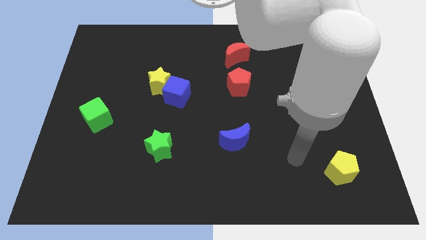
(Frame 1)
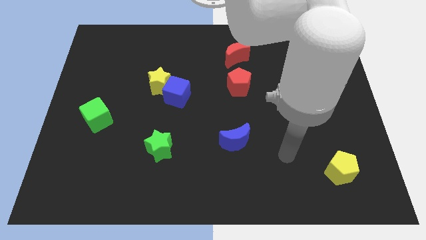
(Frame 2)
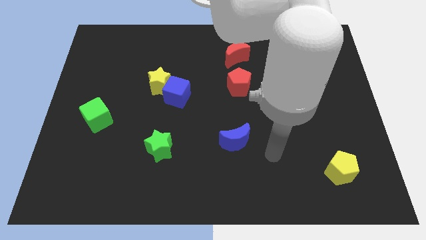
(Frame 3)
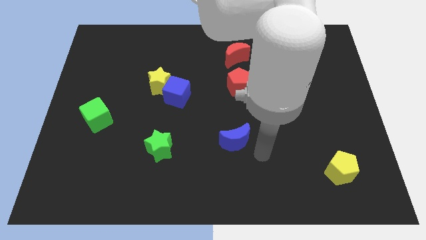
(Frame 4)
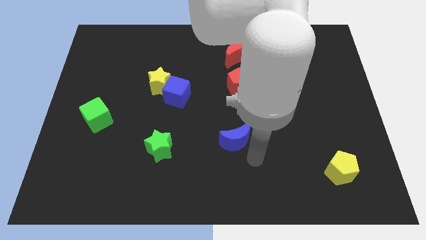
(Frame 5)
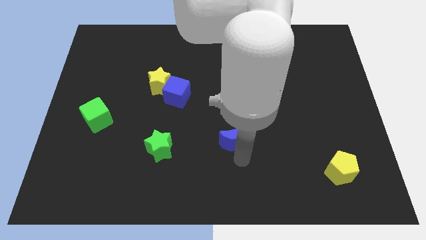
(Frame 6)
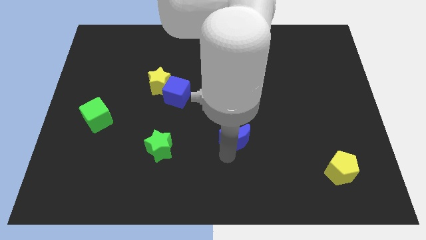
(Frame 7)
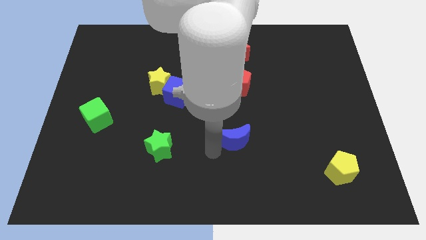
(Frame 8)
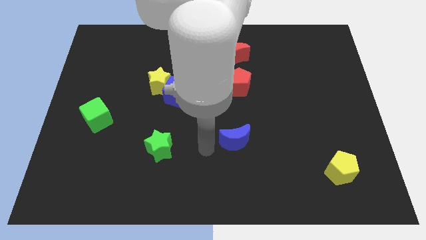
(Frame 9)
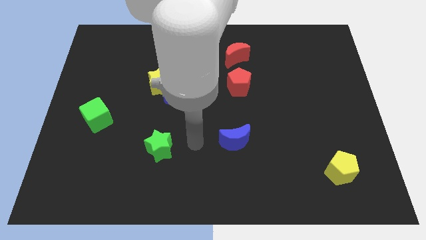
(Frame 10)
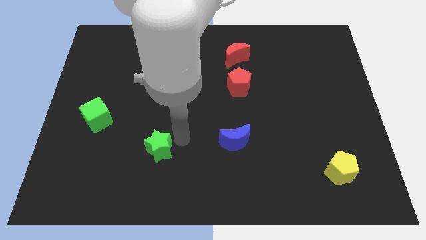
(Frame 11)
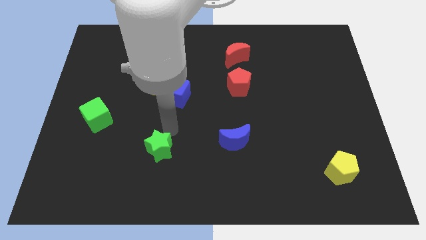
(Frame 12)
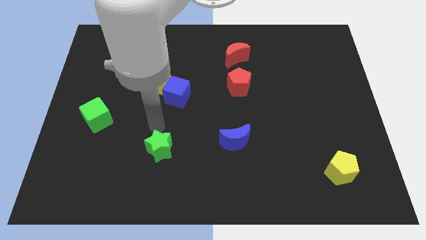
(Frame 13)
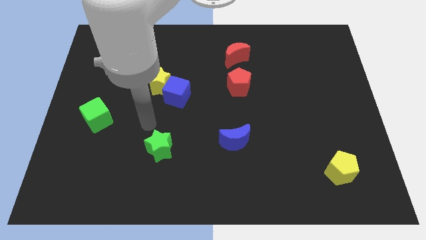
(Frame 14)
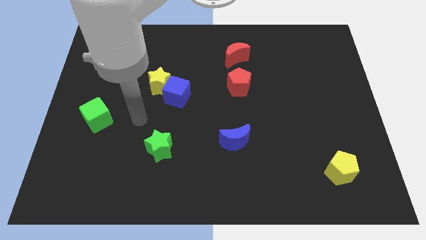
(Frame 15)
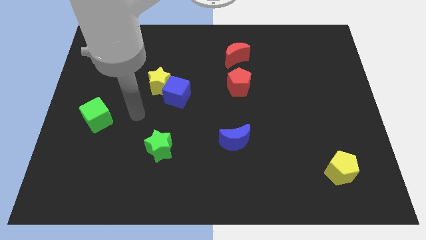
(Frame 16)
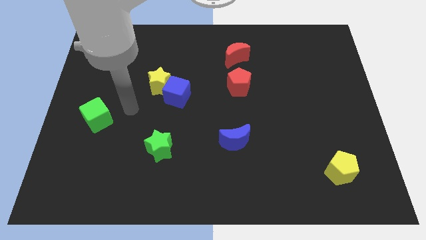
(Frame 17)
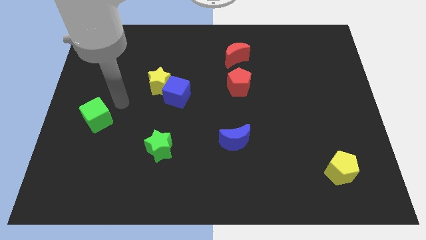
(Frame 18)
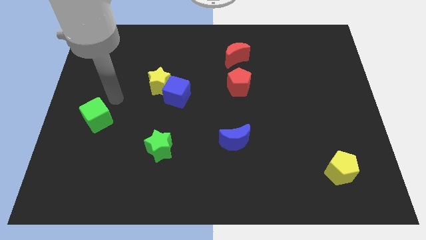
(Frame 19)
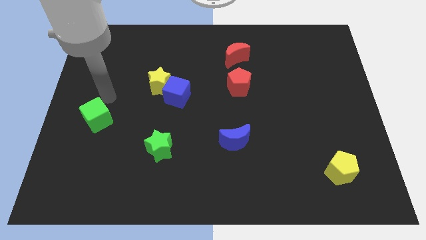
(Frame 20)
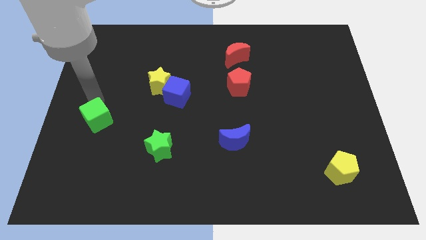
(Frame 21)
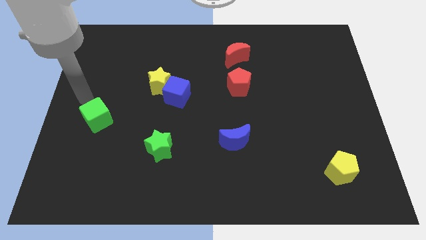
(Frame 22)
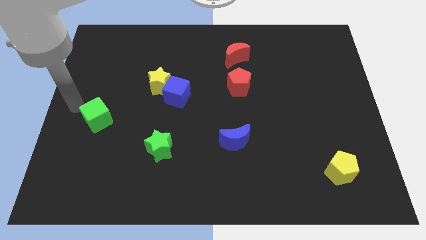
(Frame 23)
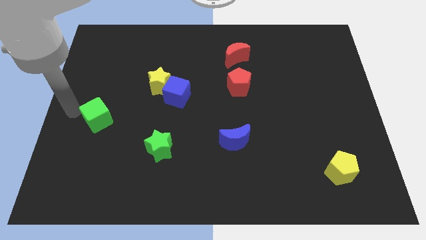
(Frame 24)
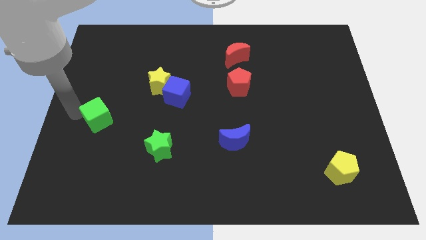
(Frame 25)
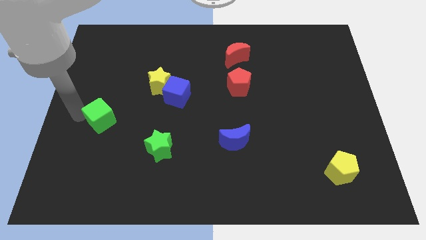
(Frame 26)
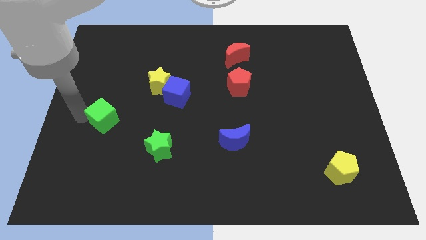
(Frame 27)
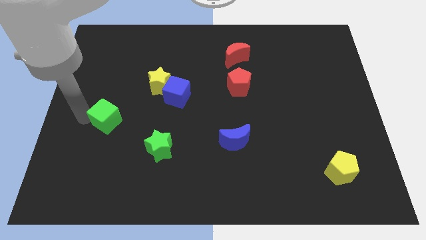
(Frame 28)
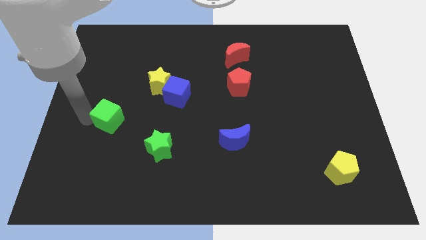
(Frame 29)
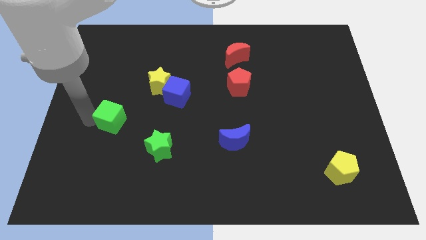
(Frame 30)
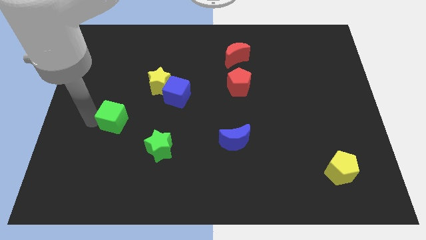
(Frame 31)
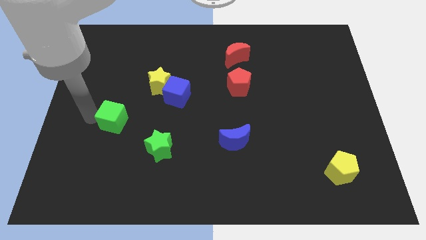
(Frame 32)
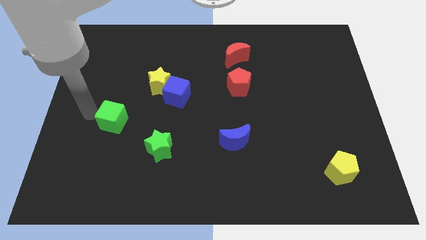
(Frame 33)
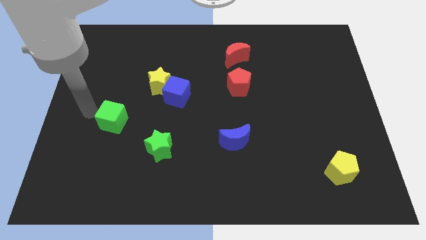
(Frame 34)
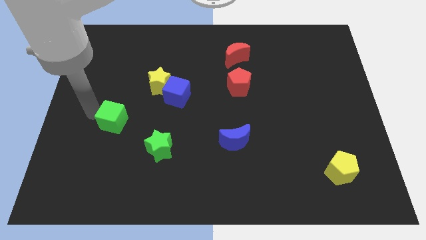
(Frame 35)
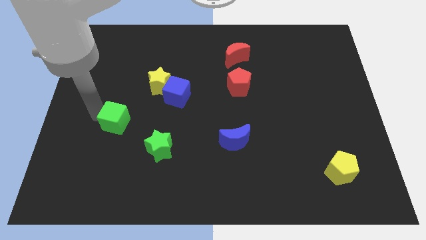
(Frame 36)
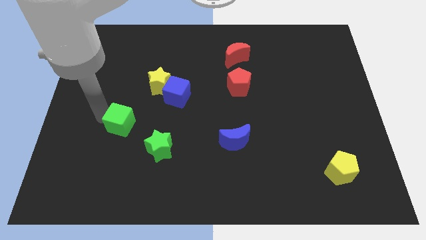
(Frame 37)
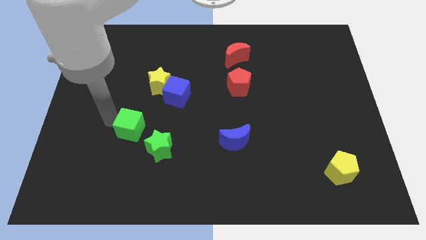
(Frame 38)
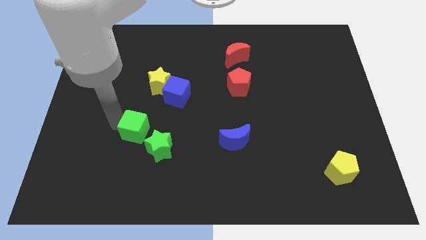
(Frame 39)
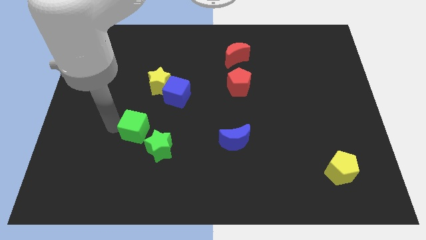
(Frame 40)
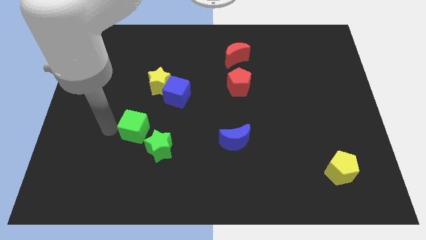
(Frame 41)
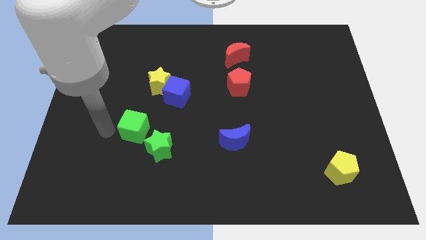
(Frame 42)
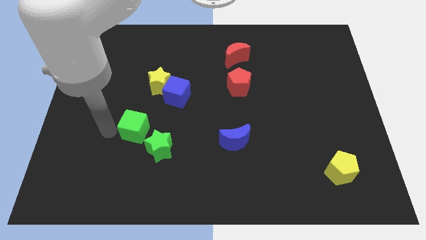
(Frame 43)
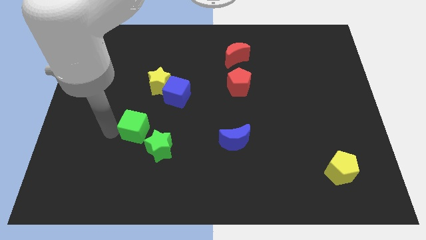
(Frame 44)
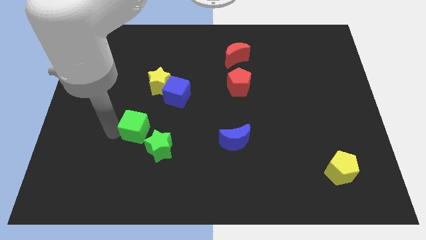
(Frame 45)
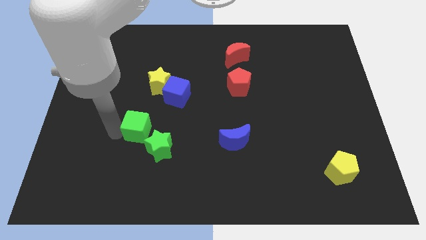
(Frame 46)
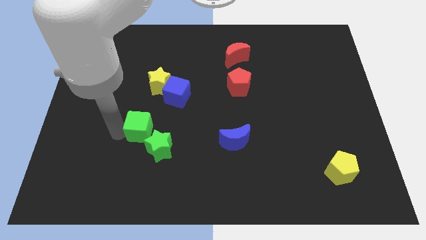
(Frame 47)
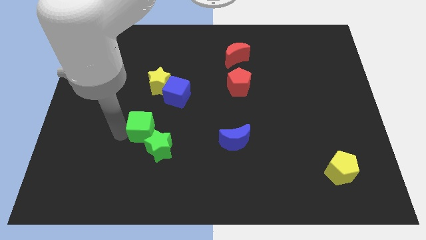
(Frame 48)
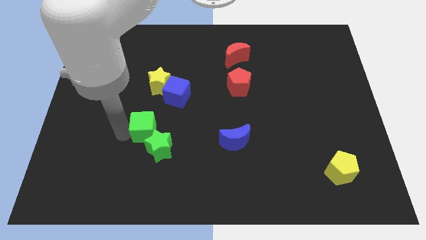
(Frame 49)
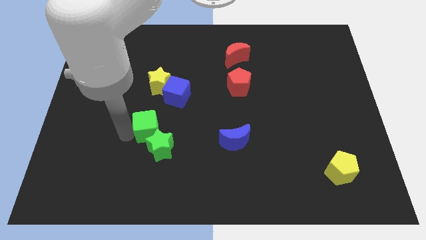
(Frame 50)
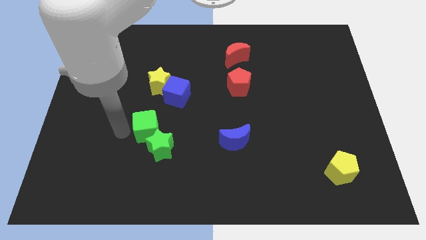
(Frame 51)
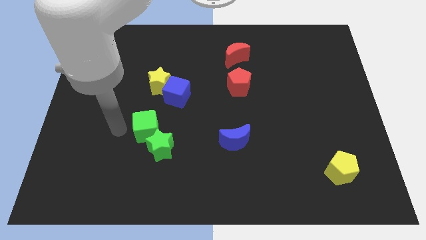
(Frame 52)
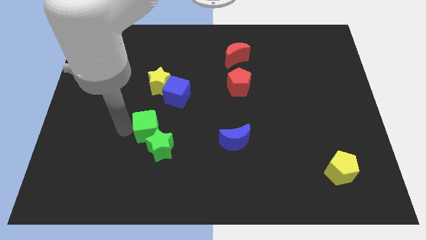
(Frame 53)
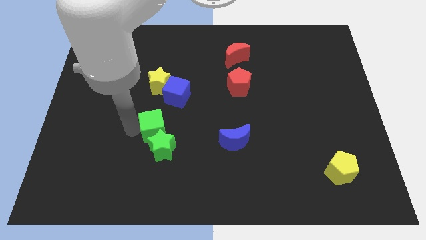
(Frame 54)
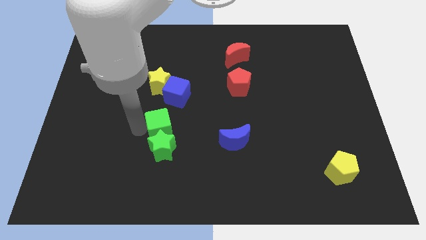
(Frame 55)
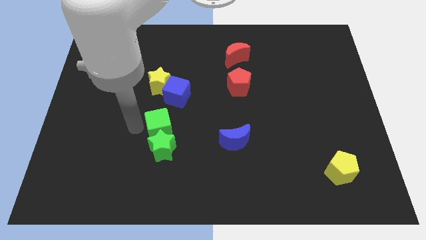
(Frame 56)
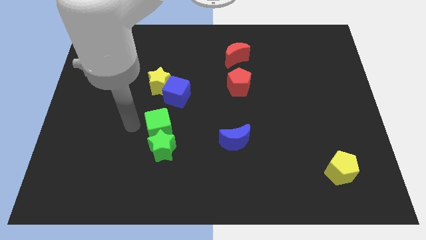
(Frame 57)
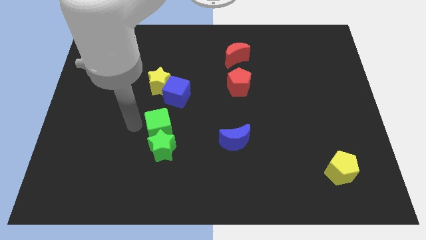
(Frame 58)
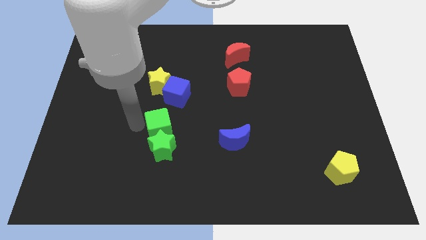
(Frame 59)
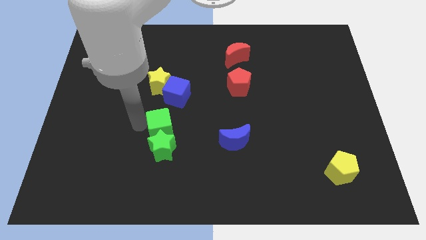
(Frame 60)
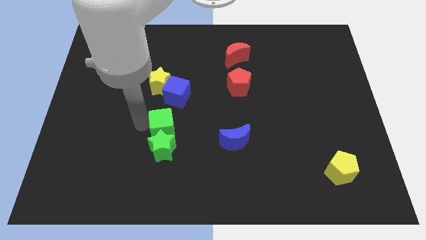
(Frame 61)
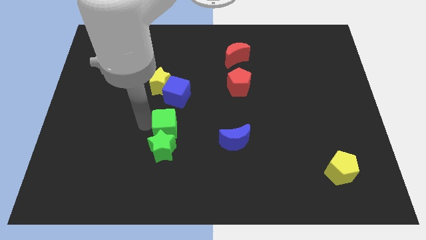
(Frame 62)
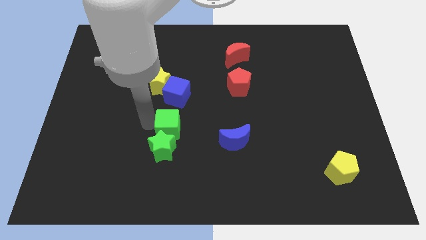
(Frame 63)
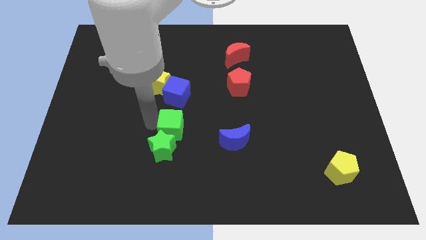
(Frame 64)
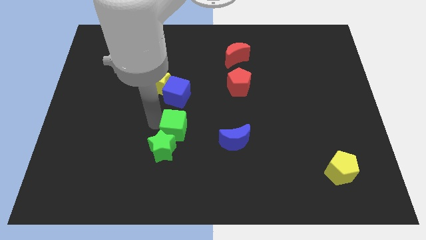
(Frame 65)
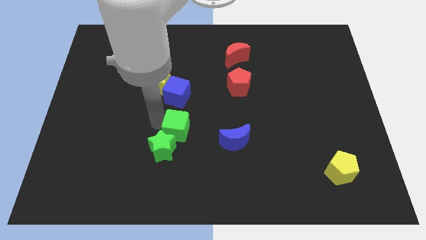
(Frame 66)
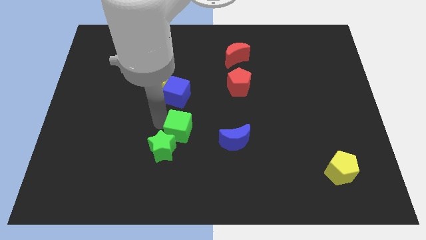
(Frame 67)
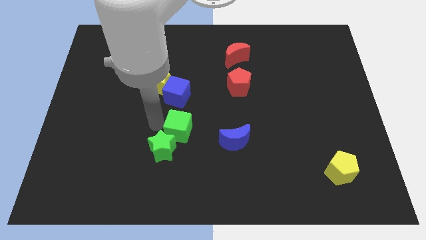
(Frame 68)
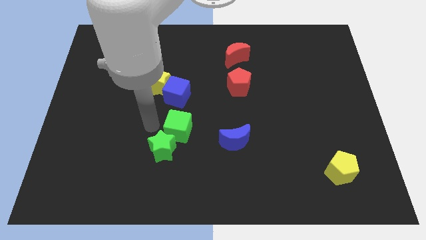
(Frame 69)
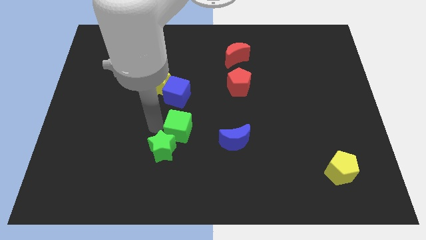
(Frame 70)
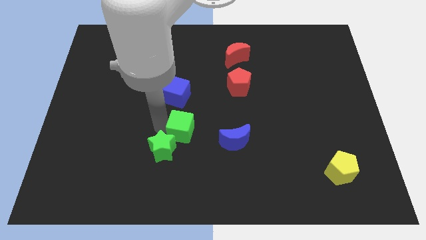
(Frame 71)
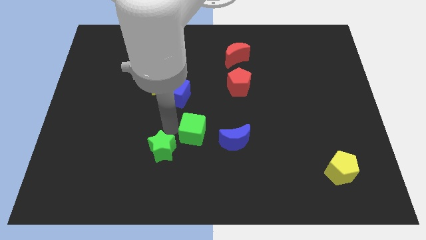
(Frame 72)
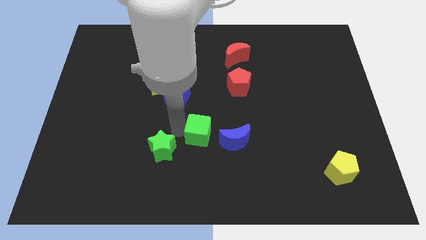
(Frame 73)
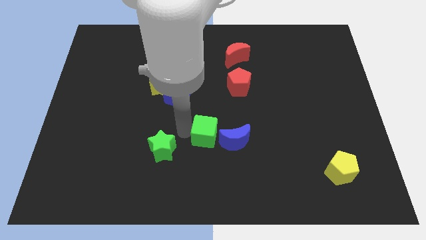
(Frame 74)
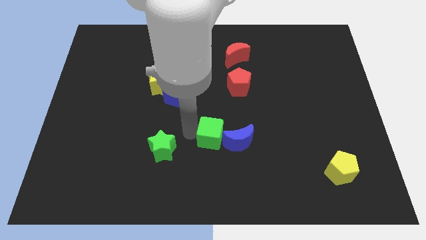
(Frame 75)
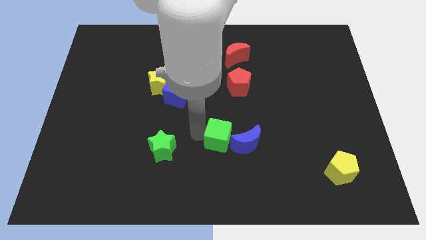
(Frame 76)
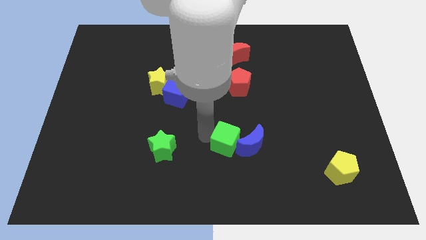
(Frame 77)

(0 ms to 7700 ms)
slide the green cube next to the blue moon
